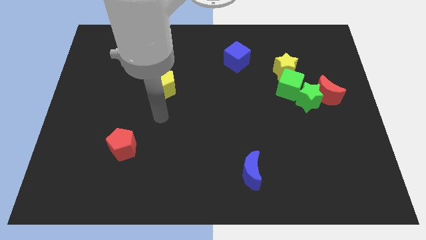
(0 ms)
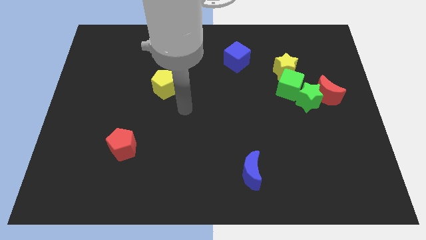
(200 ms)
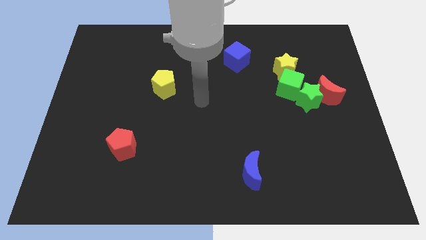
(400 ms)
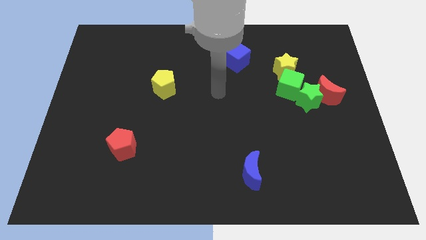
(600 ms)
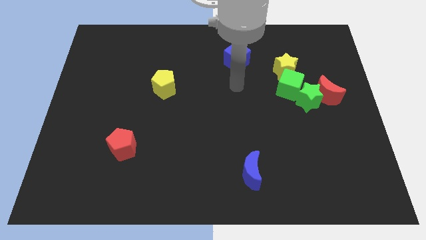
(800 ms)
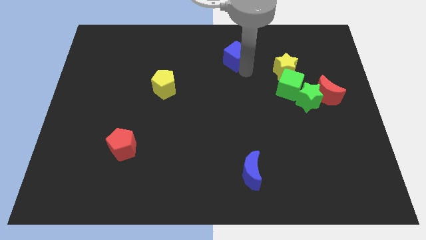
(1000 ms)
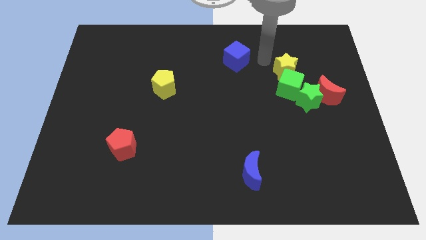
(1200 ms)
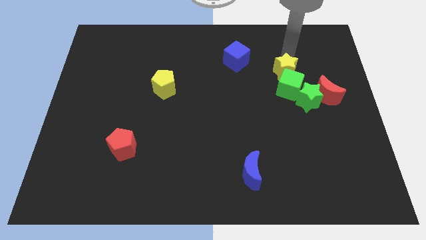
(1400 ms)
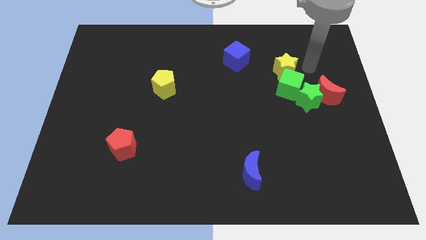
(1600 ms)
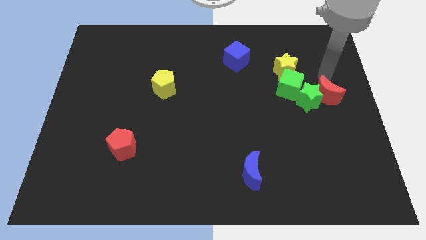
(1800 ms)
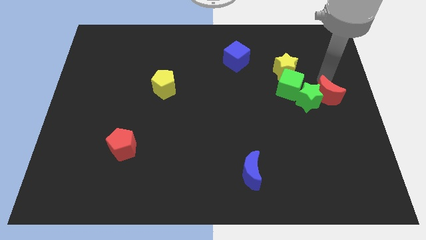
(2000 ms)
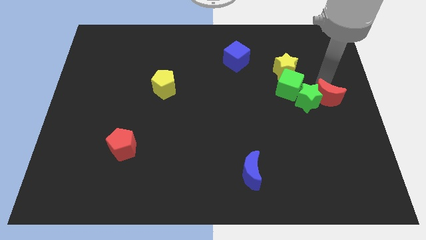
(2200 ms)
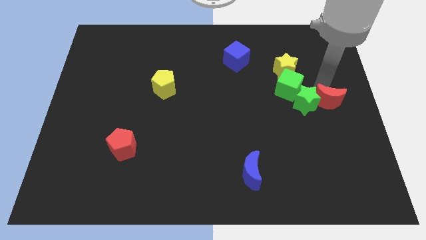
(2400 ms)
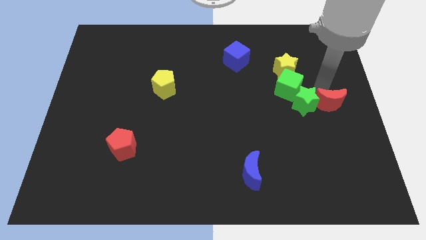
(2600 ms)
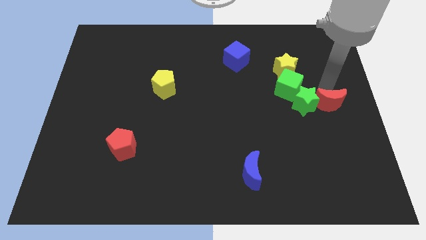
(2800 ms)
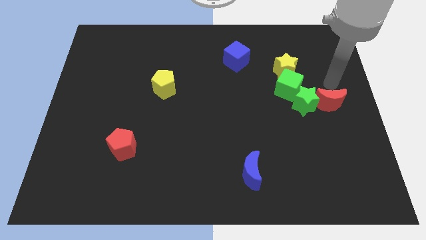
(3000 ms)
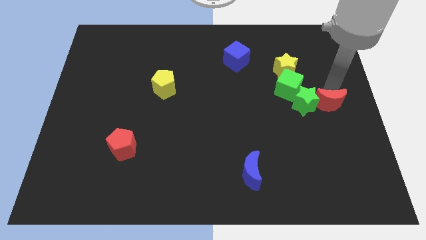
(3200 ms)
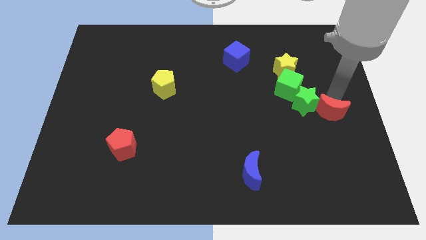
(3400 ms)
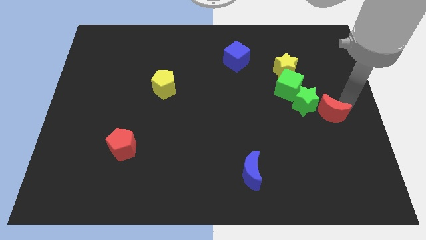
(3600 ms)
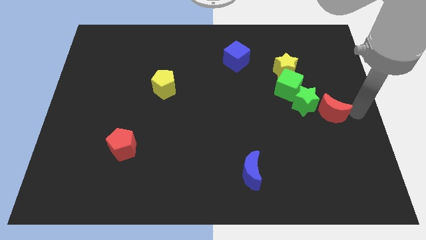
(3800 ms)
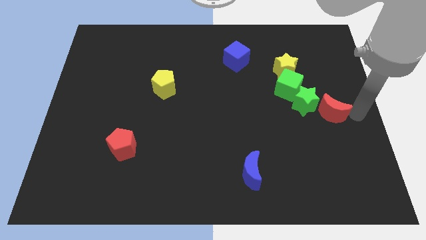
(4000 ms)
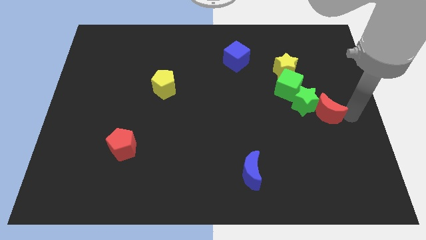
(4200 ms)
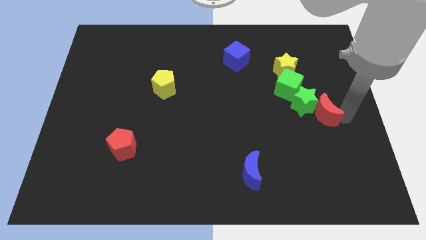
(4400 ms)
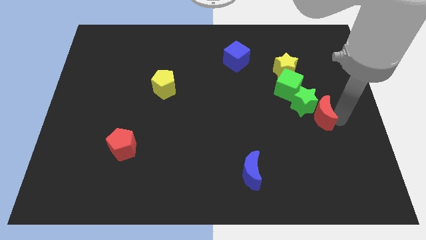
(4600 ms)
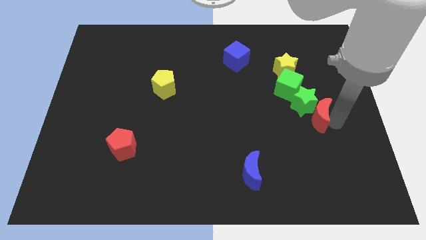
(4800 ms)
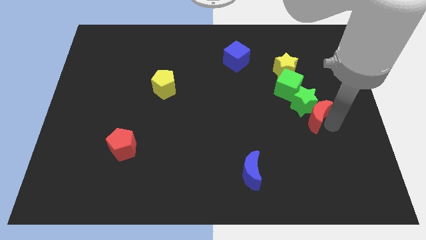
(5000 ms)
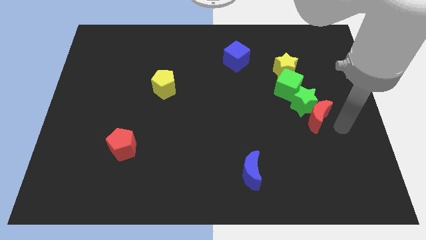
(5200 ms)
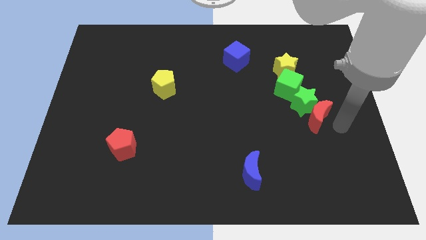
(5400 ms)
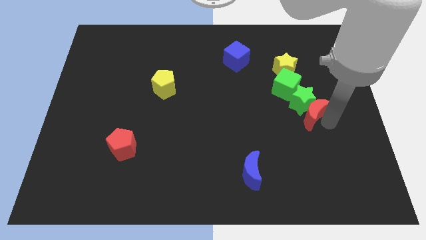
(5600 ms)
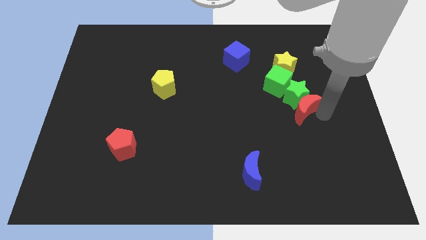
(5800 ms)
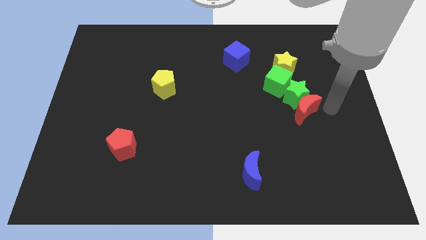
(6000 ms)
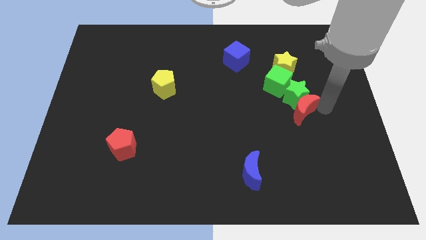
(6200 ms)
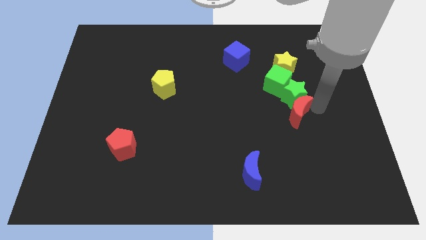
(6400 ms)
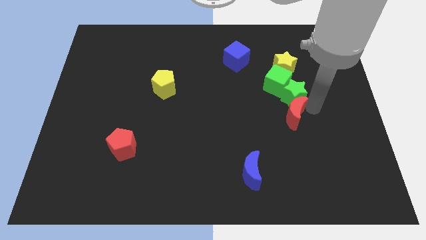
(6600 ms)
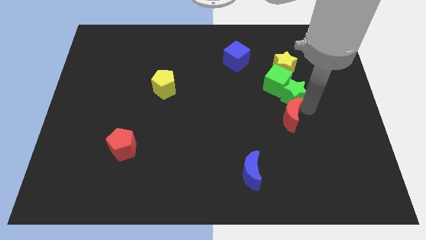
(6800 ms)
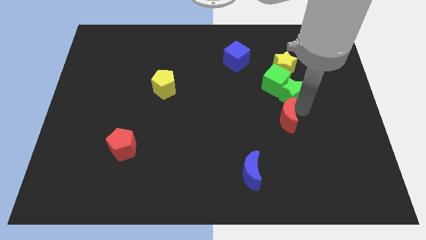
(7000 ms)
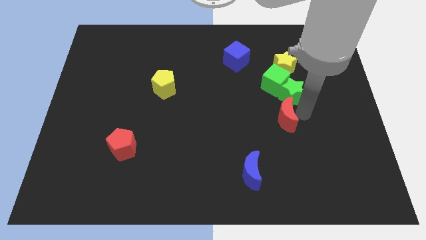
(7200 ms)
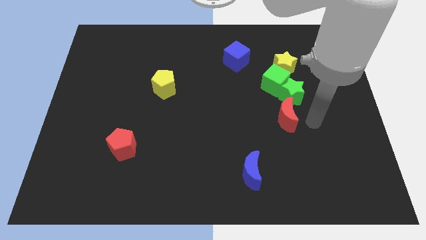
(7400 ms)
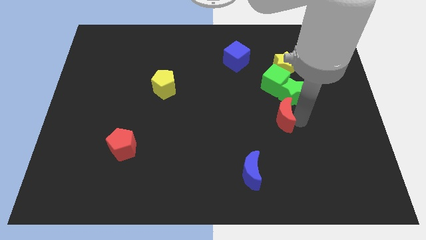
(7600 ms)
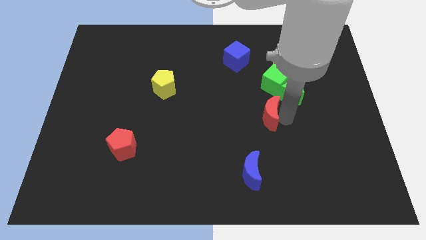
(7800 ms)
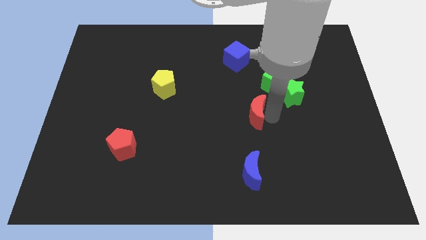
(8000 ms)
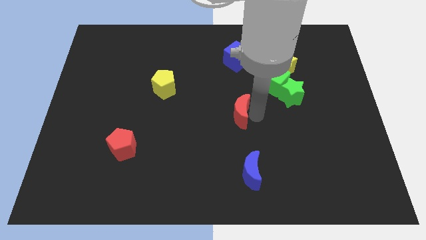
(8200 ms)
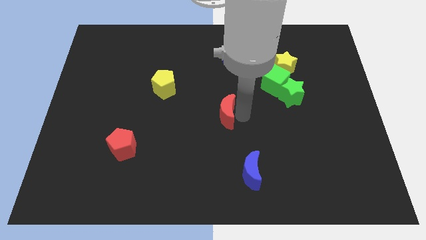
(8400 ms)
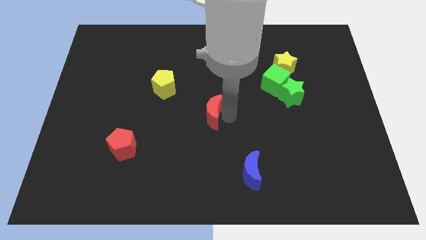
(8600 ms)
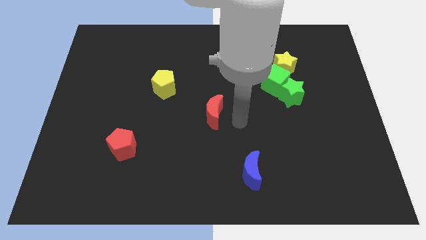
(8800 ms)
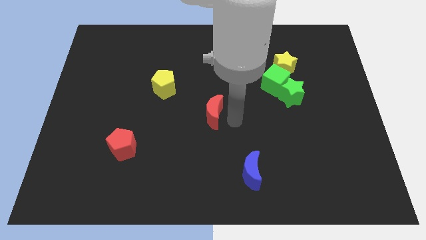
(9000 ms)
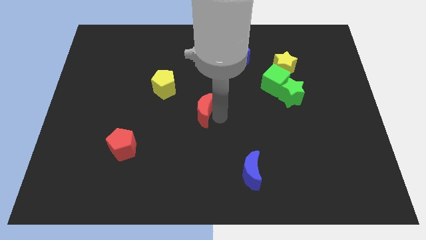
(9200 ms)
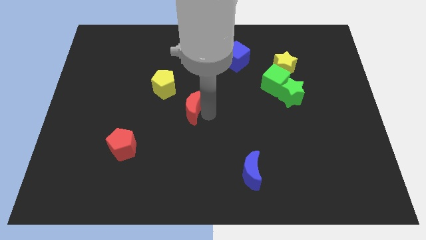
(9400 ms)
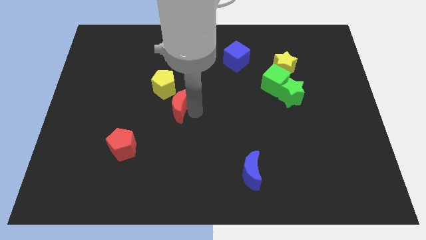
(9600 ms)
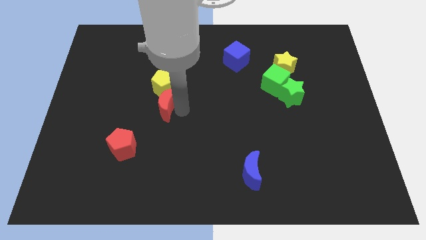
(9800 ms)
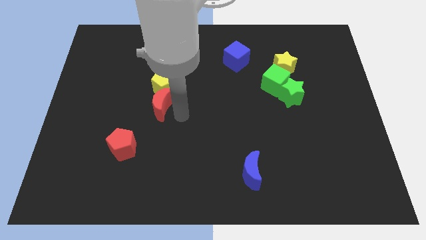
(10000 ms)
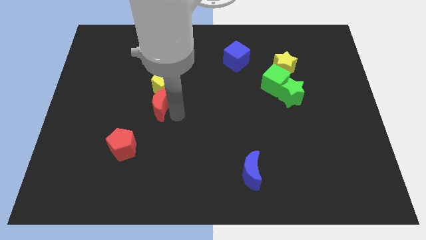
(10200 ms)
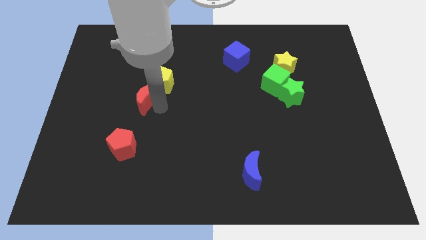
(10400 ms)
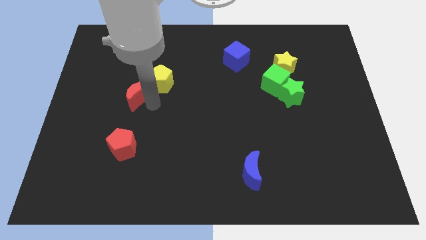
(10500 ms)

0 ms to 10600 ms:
slide the red moon to the left of the yellow pentagon

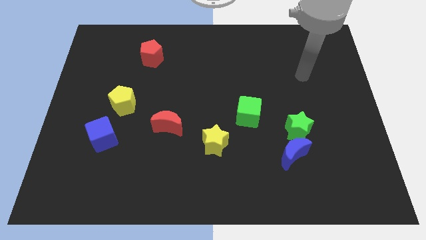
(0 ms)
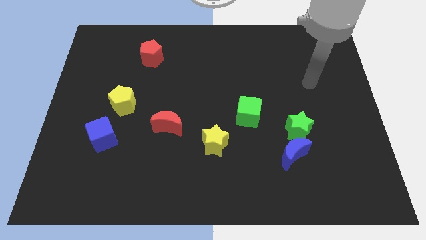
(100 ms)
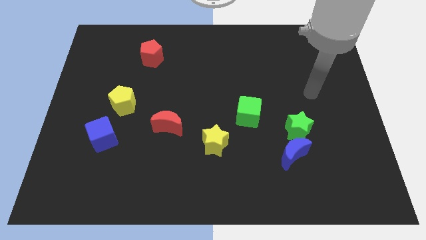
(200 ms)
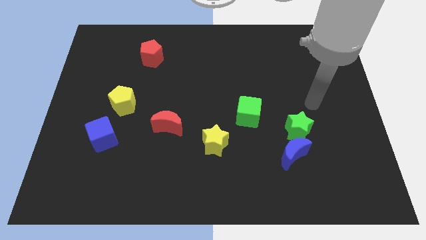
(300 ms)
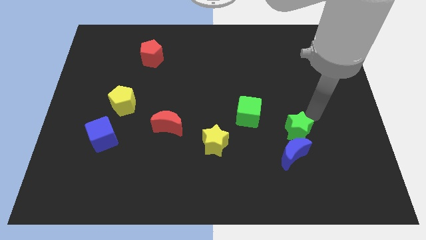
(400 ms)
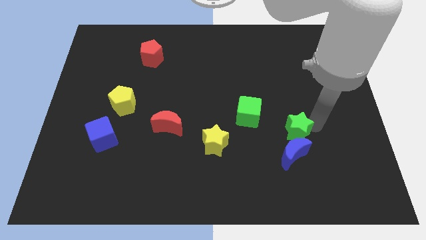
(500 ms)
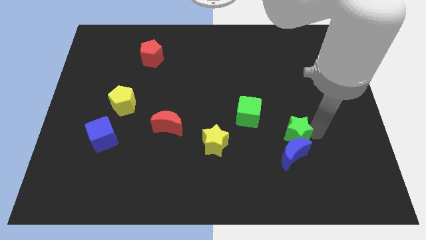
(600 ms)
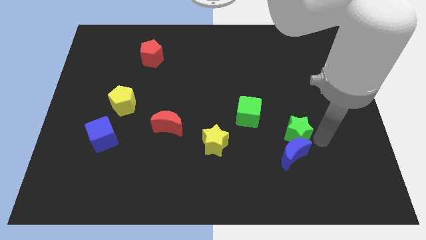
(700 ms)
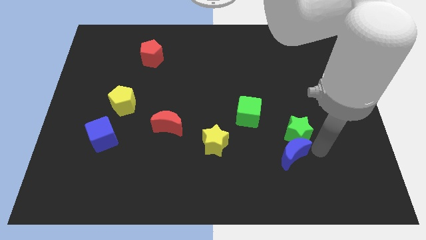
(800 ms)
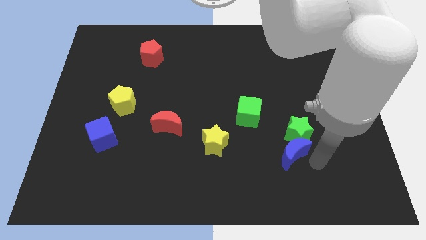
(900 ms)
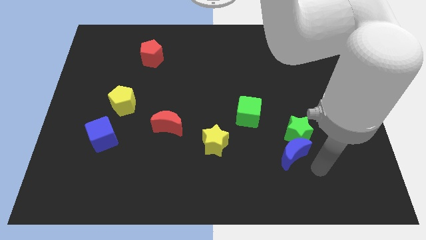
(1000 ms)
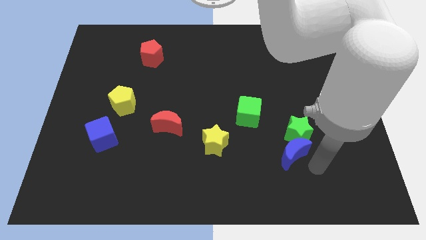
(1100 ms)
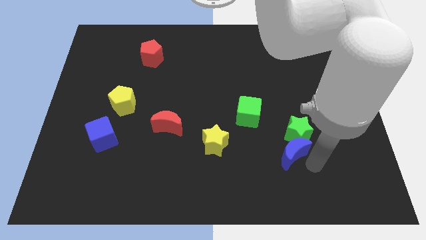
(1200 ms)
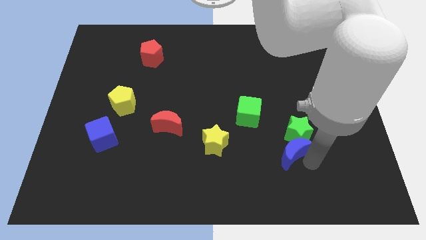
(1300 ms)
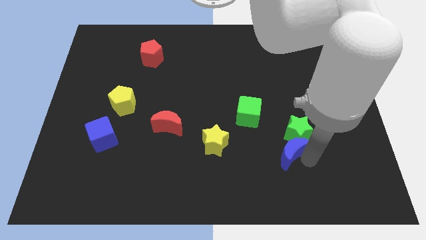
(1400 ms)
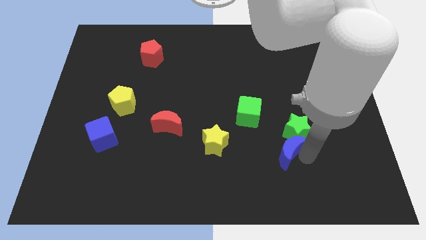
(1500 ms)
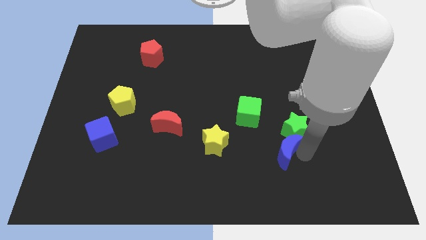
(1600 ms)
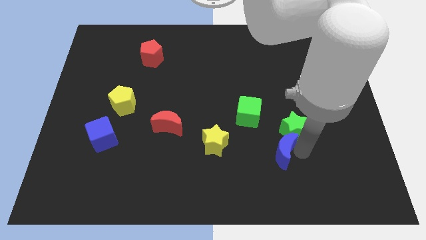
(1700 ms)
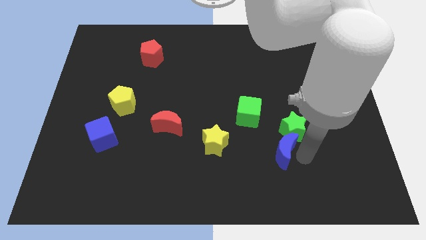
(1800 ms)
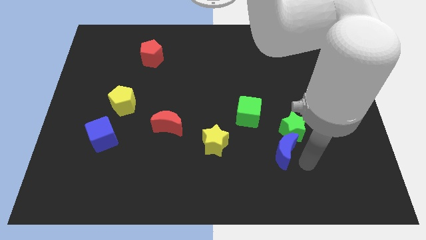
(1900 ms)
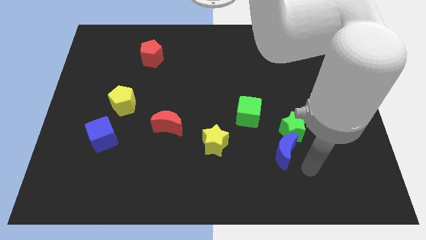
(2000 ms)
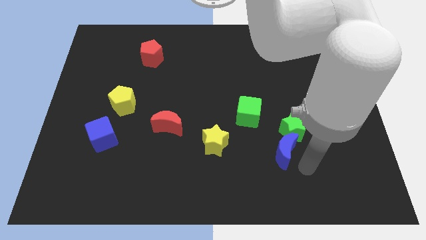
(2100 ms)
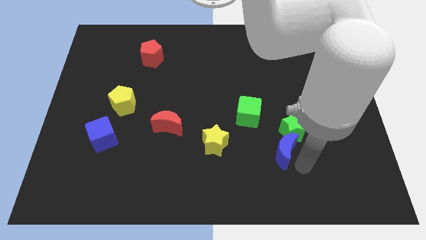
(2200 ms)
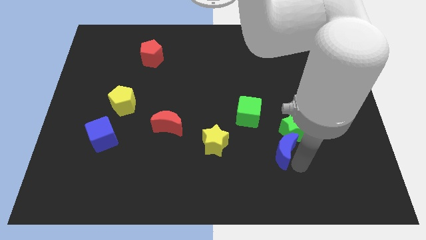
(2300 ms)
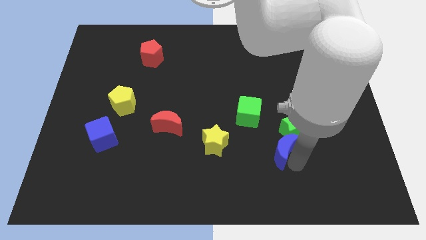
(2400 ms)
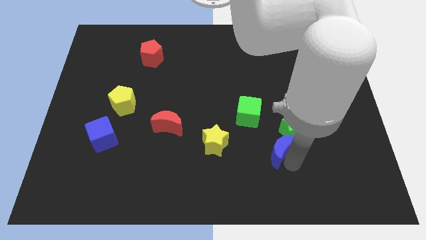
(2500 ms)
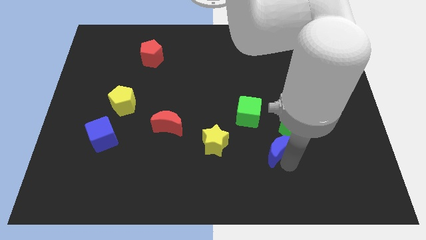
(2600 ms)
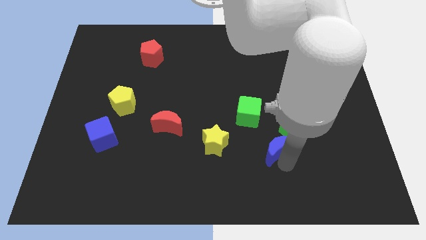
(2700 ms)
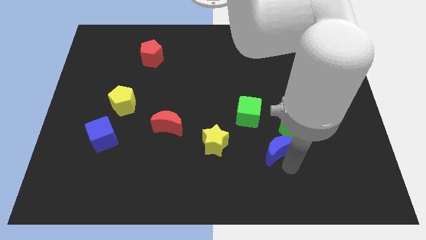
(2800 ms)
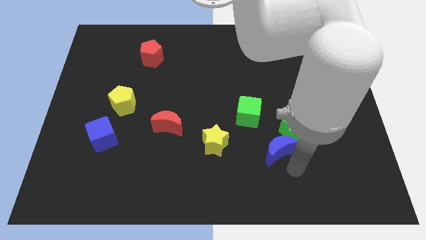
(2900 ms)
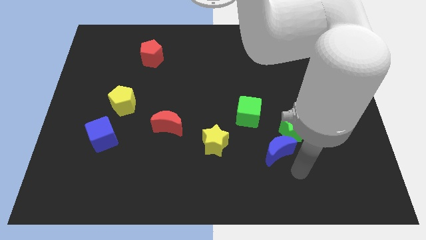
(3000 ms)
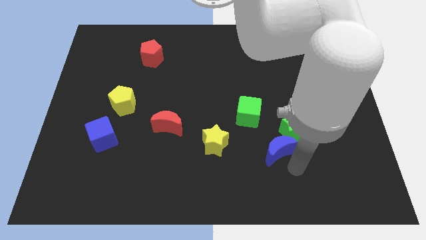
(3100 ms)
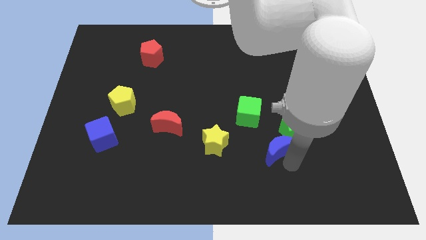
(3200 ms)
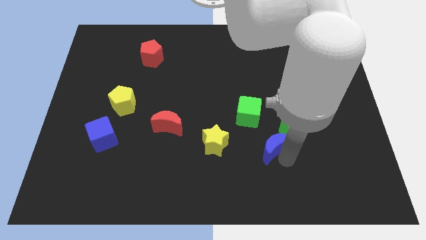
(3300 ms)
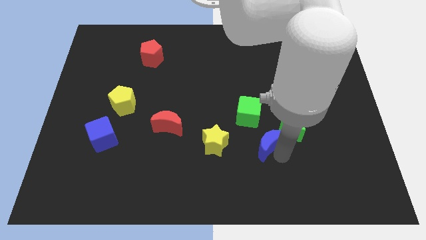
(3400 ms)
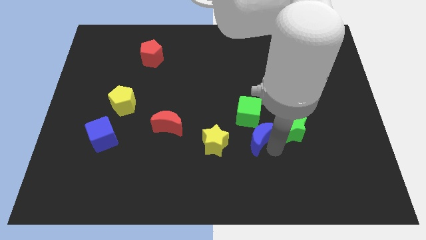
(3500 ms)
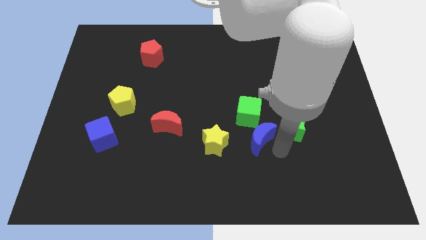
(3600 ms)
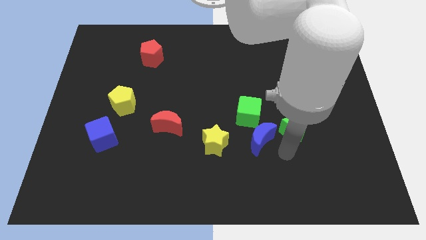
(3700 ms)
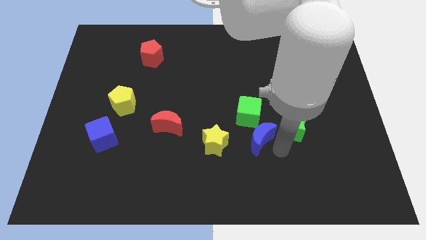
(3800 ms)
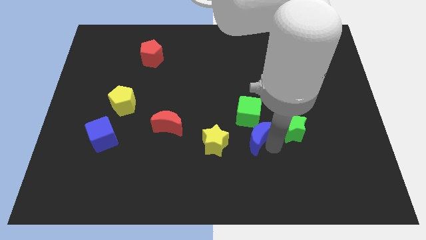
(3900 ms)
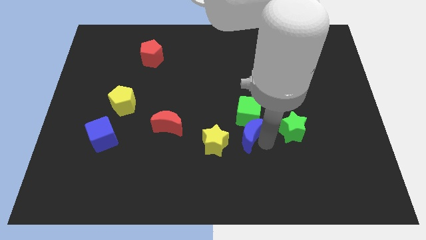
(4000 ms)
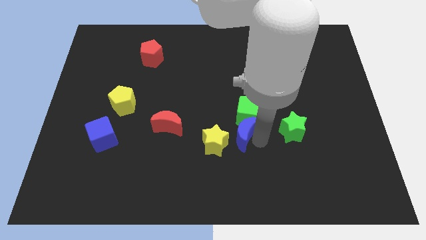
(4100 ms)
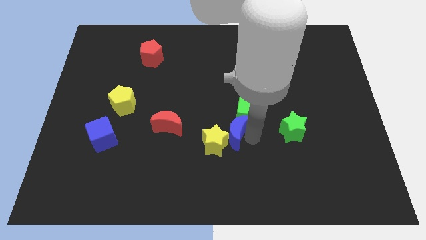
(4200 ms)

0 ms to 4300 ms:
put the blue moon right of the red moon
